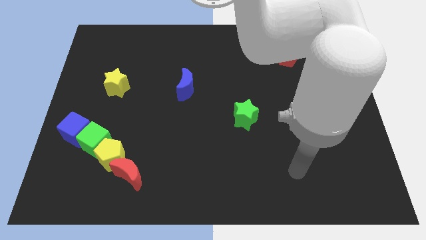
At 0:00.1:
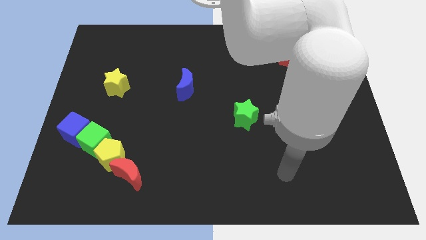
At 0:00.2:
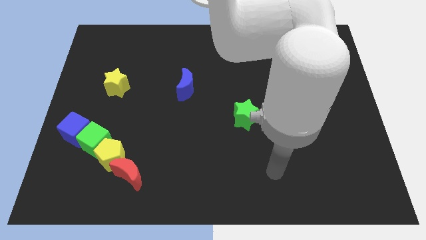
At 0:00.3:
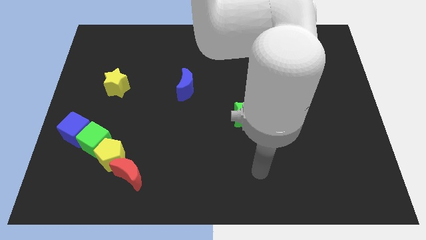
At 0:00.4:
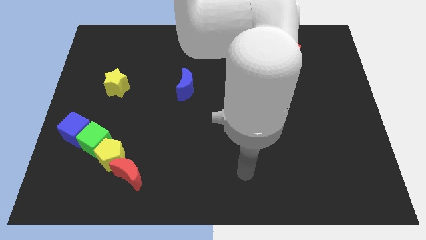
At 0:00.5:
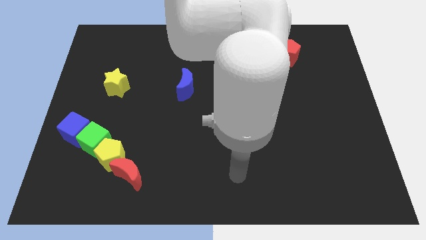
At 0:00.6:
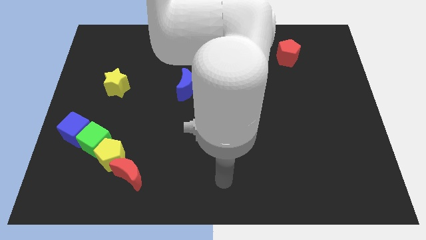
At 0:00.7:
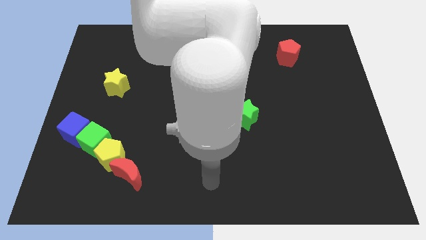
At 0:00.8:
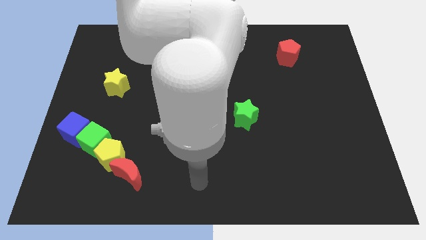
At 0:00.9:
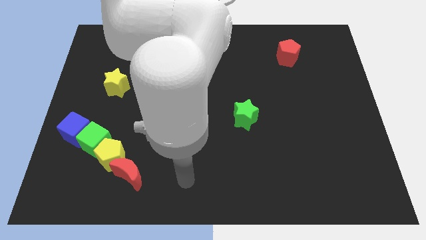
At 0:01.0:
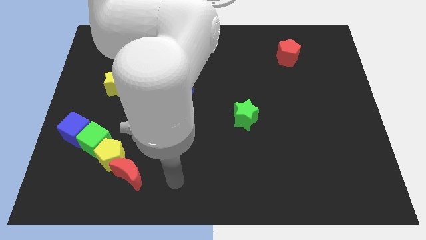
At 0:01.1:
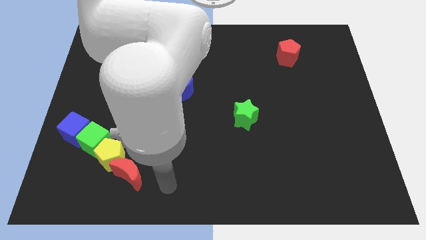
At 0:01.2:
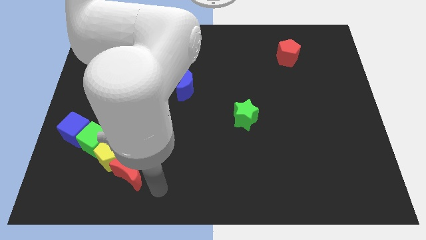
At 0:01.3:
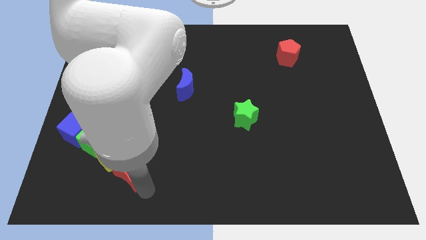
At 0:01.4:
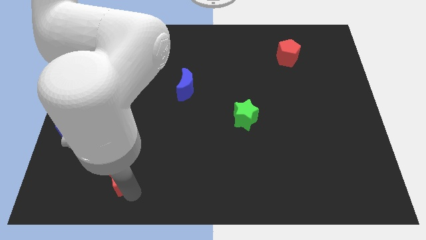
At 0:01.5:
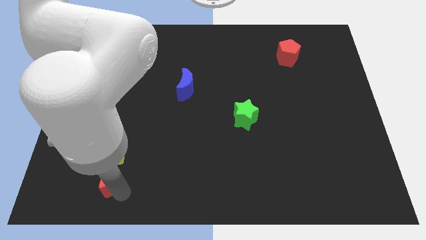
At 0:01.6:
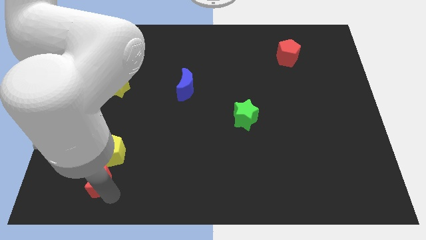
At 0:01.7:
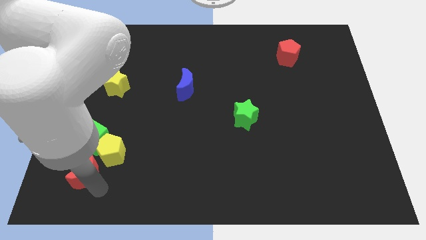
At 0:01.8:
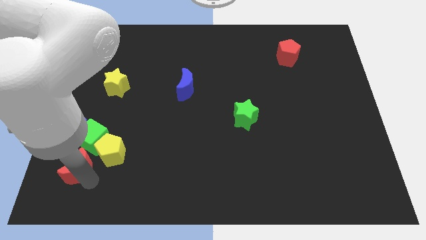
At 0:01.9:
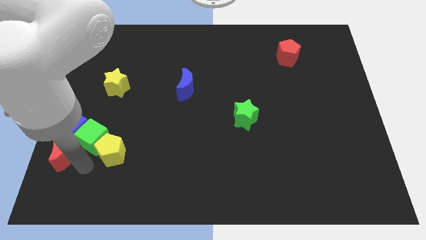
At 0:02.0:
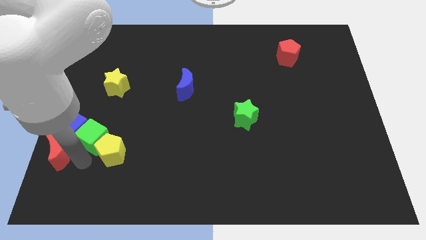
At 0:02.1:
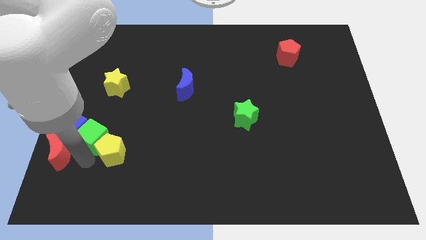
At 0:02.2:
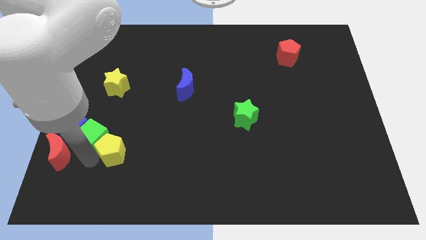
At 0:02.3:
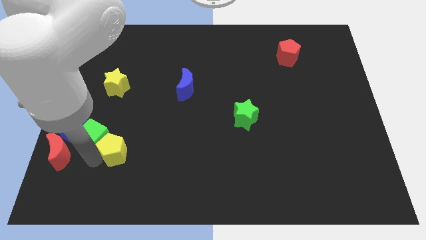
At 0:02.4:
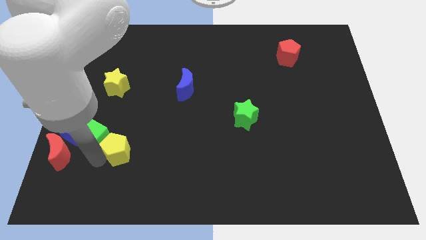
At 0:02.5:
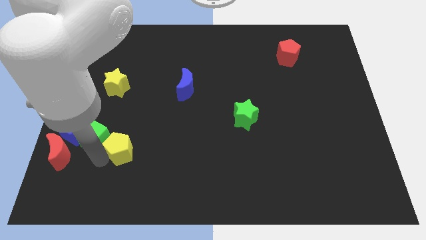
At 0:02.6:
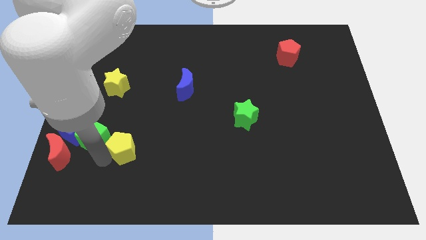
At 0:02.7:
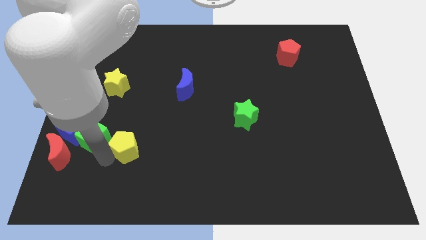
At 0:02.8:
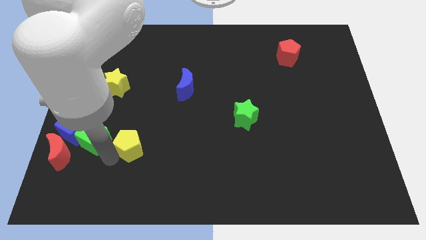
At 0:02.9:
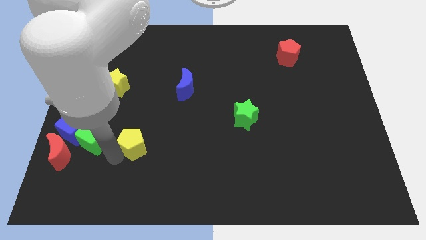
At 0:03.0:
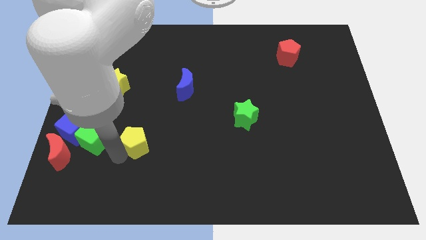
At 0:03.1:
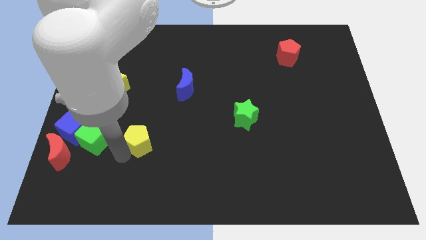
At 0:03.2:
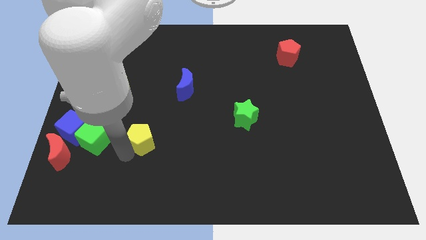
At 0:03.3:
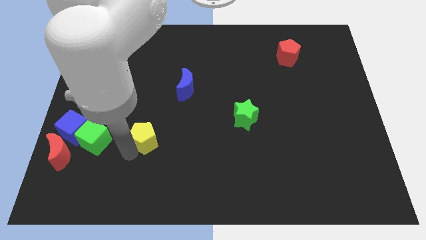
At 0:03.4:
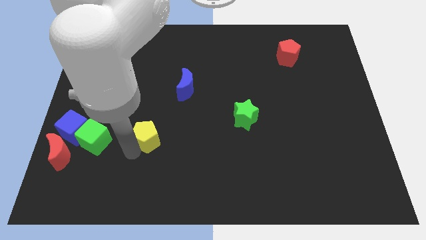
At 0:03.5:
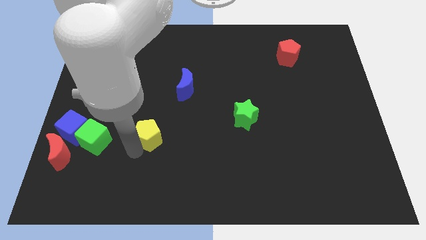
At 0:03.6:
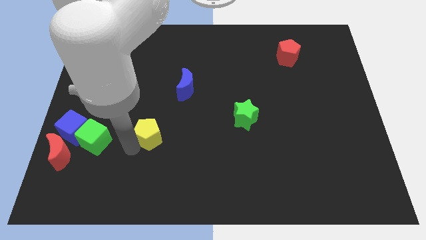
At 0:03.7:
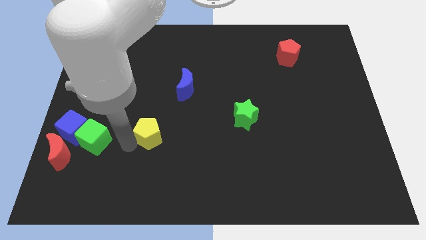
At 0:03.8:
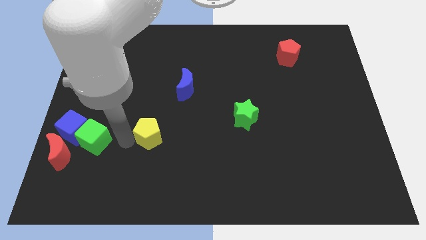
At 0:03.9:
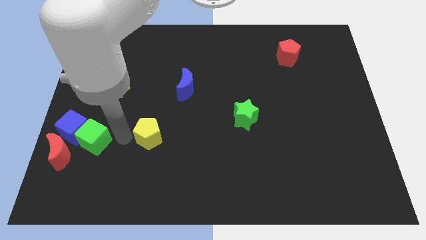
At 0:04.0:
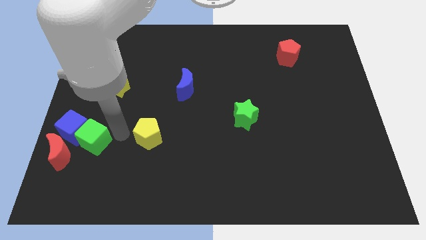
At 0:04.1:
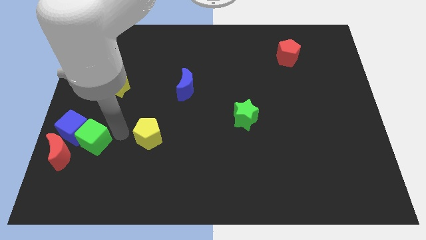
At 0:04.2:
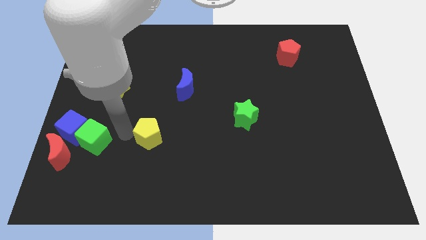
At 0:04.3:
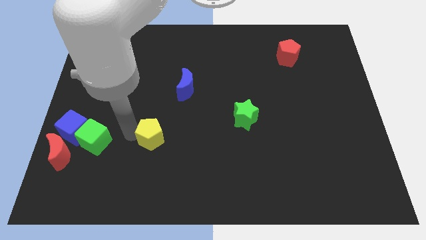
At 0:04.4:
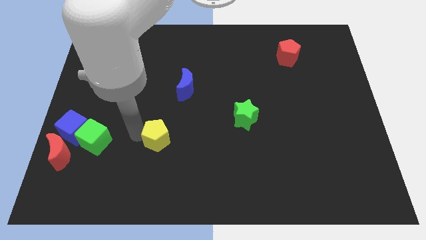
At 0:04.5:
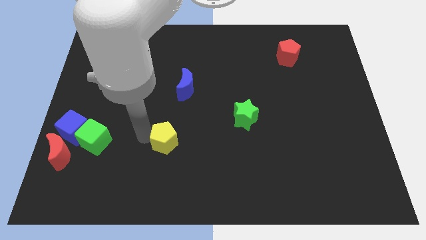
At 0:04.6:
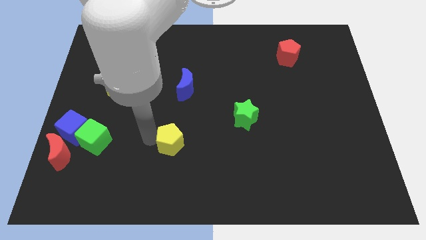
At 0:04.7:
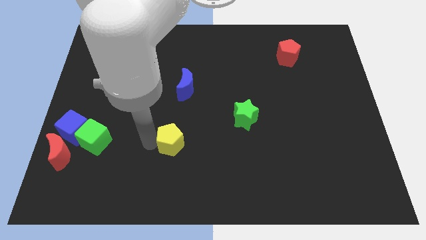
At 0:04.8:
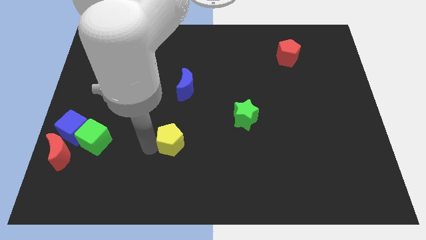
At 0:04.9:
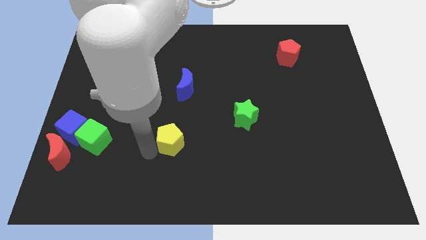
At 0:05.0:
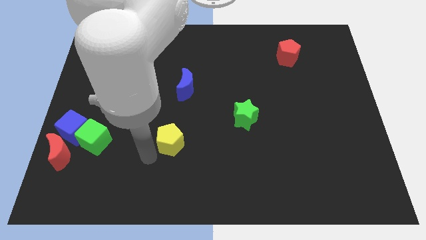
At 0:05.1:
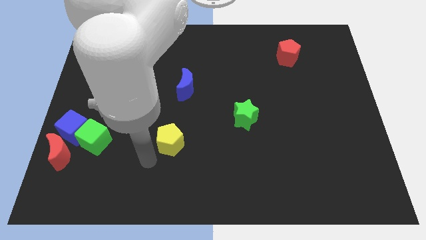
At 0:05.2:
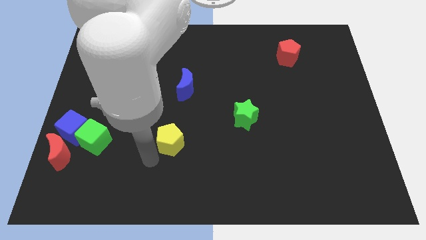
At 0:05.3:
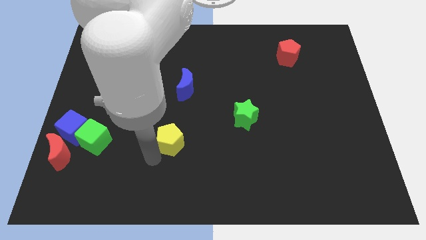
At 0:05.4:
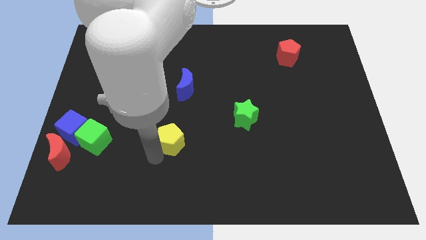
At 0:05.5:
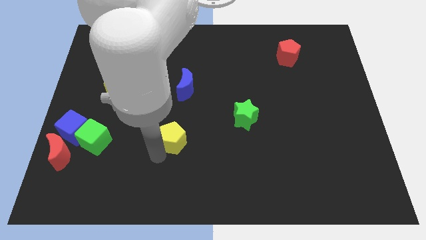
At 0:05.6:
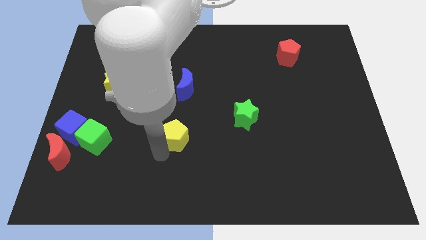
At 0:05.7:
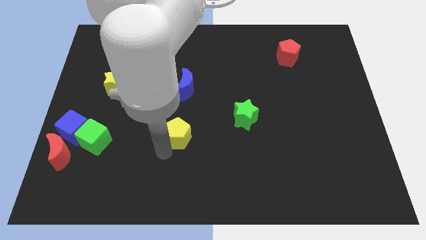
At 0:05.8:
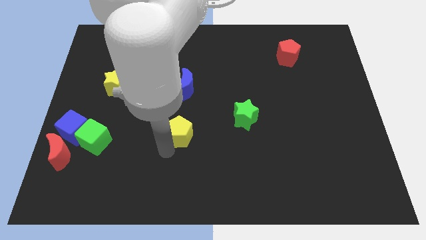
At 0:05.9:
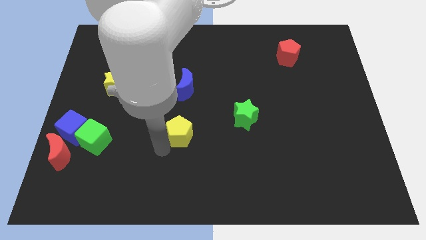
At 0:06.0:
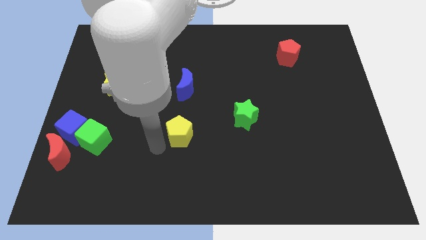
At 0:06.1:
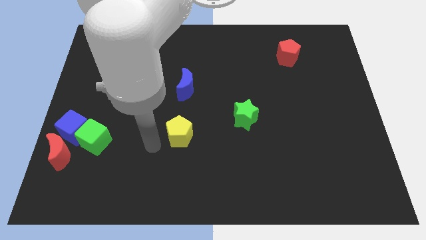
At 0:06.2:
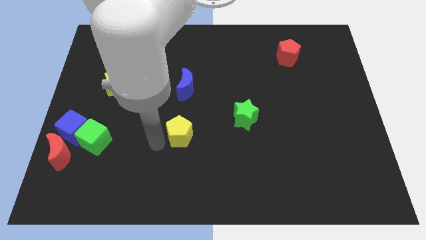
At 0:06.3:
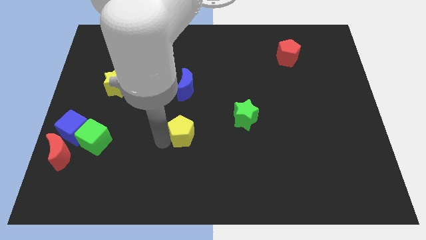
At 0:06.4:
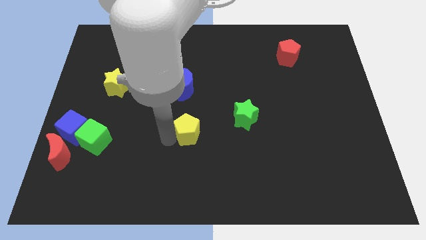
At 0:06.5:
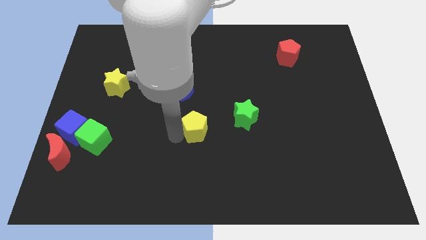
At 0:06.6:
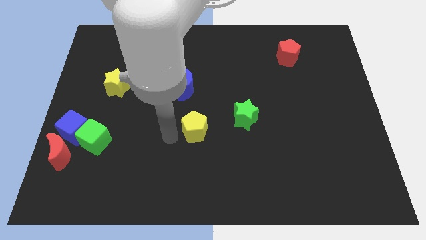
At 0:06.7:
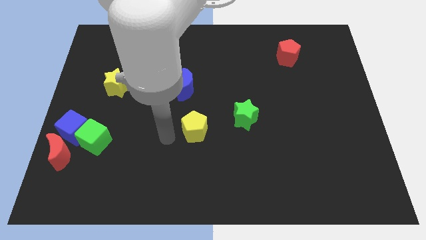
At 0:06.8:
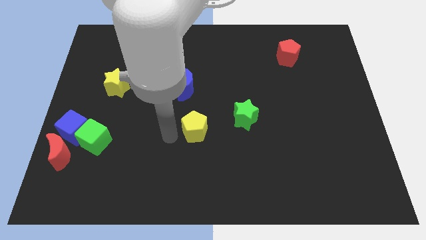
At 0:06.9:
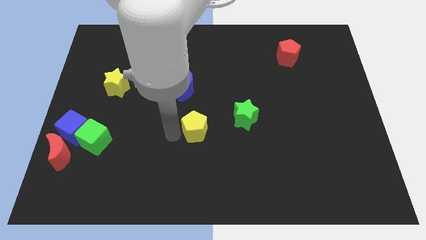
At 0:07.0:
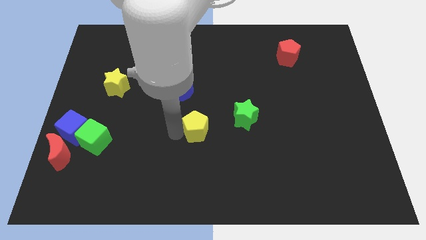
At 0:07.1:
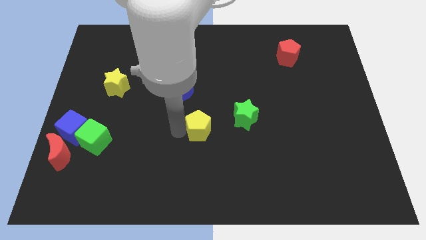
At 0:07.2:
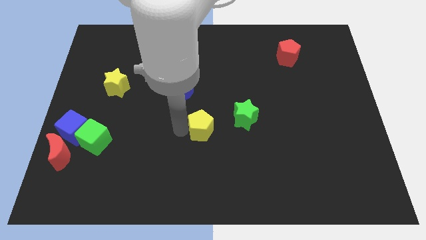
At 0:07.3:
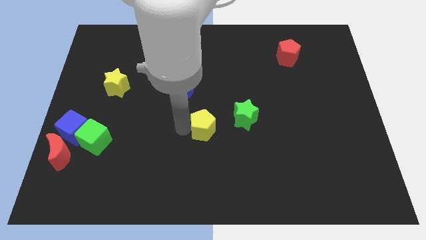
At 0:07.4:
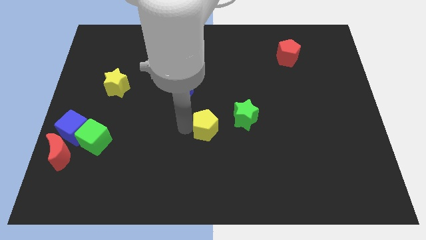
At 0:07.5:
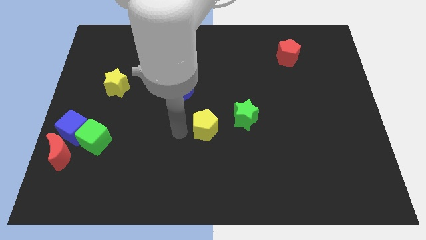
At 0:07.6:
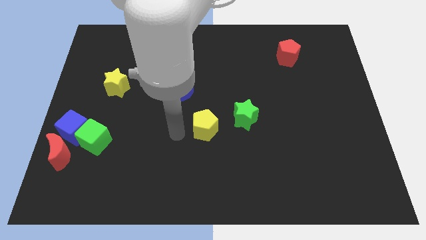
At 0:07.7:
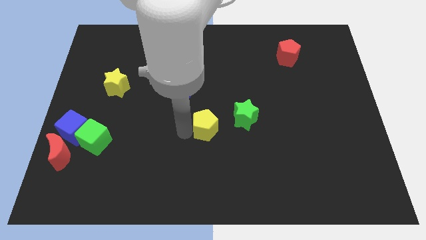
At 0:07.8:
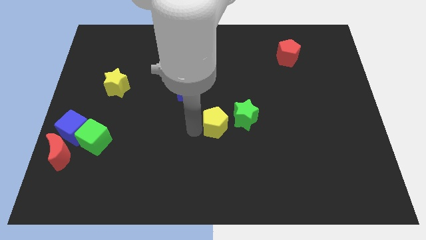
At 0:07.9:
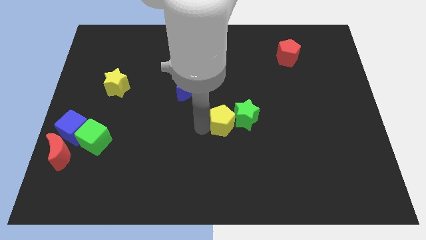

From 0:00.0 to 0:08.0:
put the yellow pentagon towards the green star
